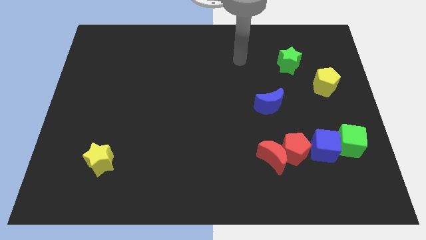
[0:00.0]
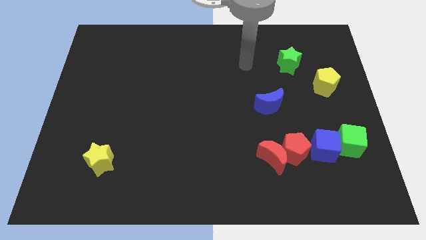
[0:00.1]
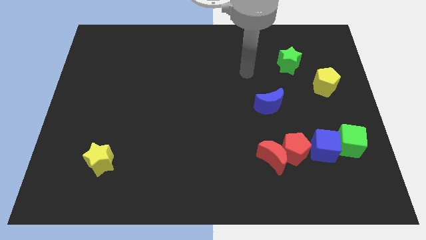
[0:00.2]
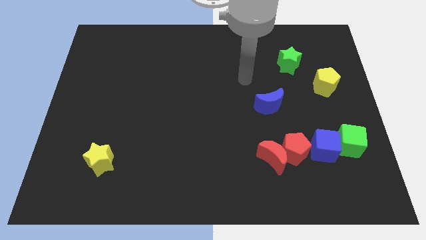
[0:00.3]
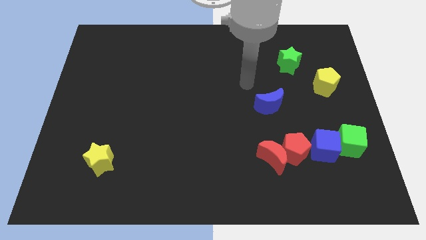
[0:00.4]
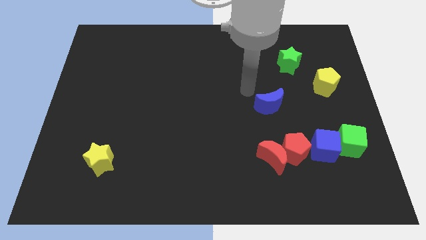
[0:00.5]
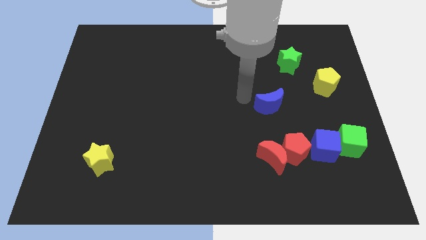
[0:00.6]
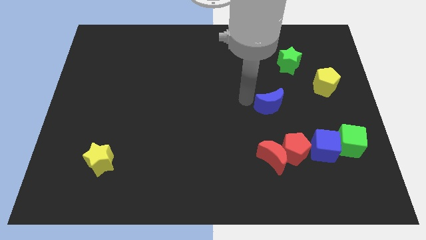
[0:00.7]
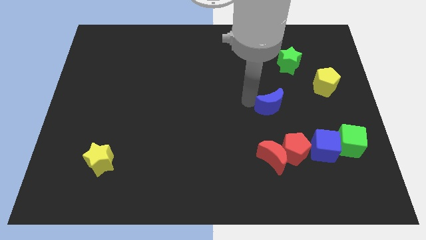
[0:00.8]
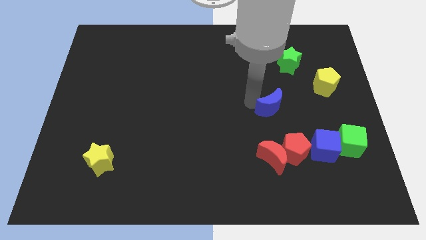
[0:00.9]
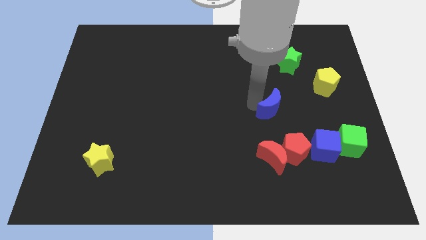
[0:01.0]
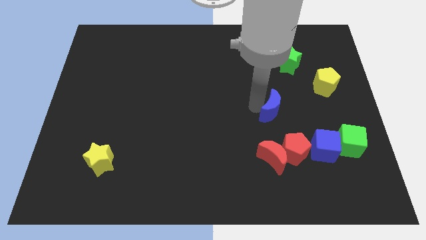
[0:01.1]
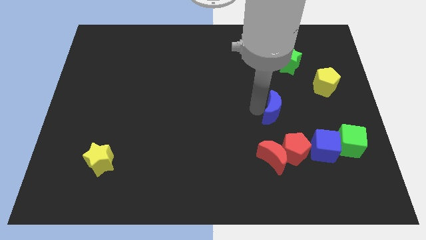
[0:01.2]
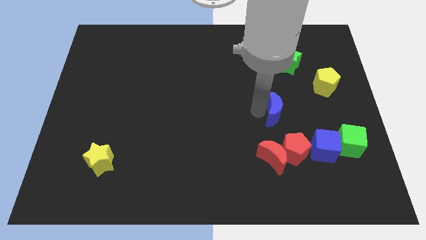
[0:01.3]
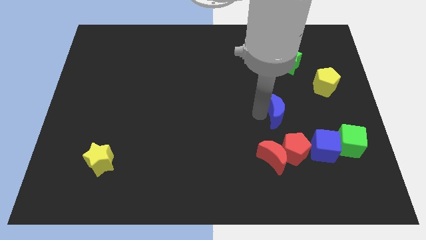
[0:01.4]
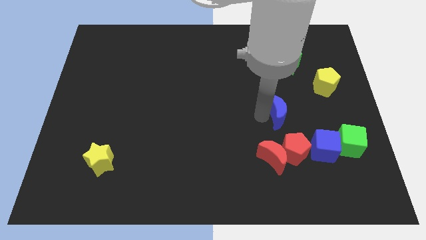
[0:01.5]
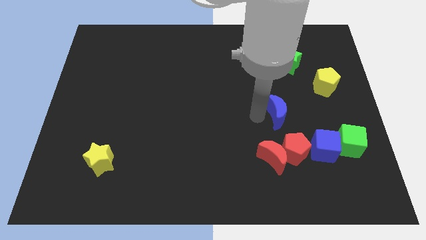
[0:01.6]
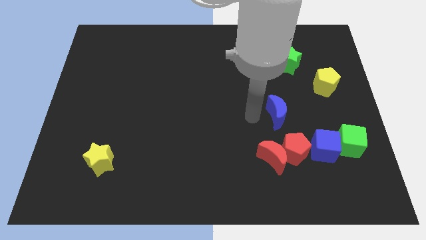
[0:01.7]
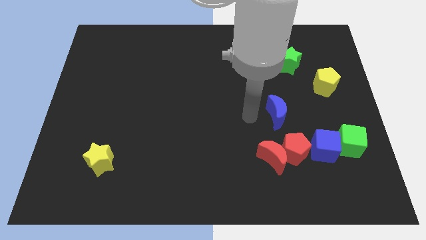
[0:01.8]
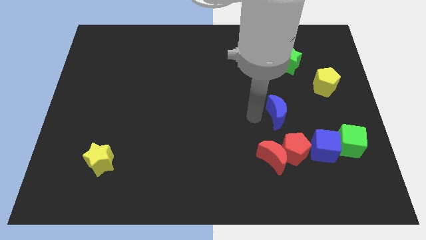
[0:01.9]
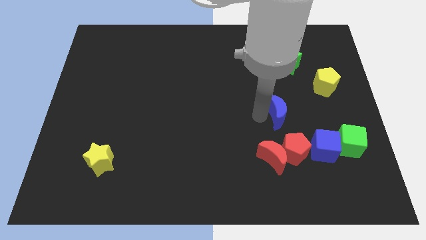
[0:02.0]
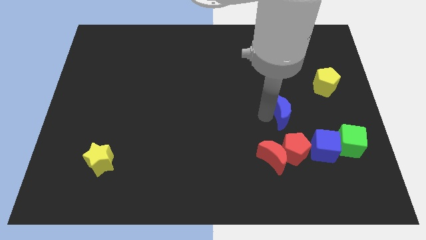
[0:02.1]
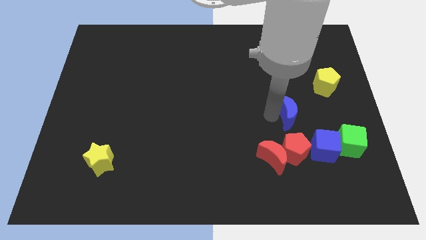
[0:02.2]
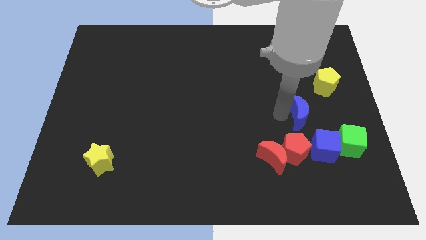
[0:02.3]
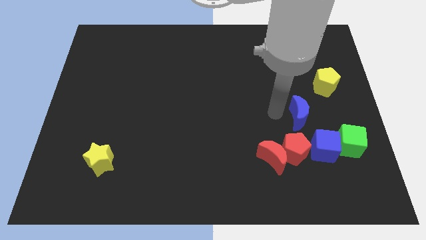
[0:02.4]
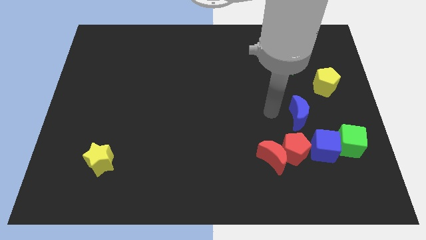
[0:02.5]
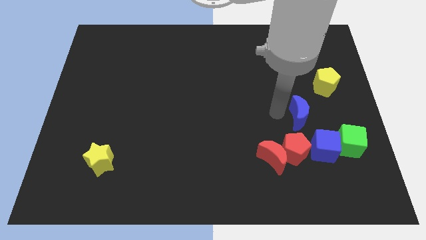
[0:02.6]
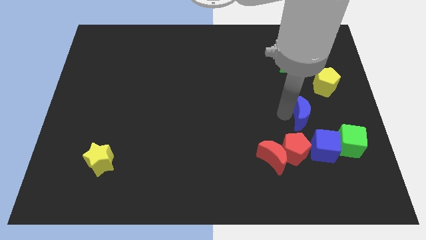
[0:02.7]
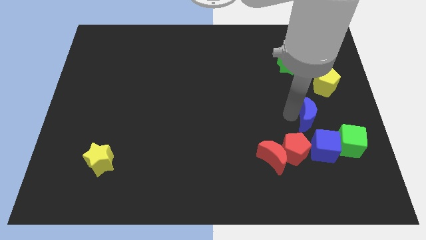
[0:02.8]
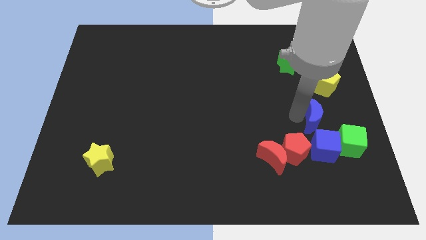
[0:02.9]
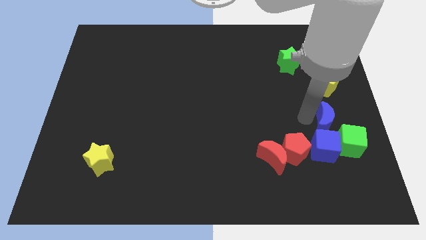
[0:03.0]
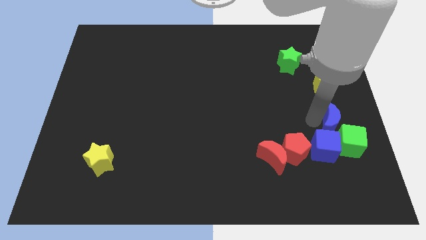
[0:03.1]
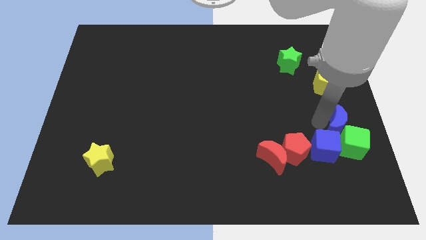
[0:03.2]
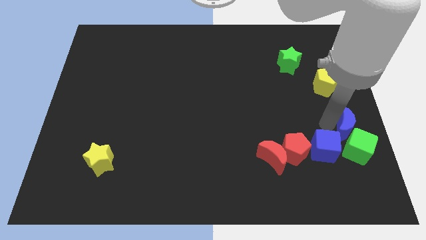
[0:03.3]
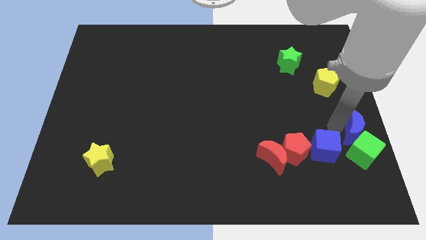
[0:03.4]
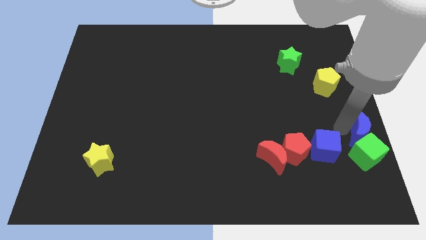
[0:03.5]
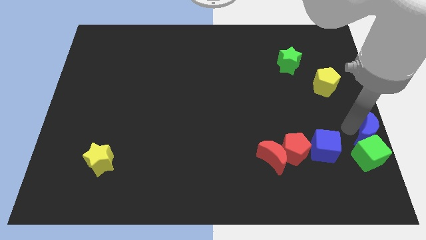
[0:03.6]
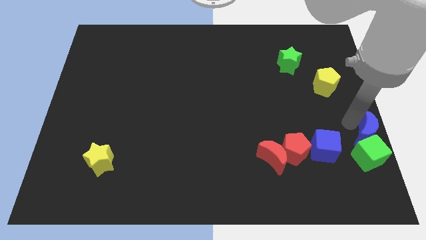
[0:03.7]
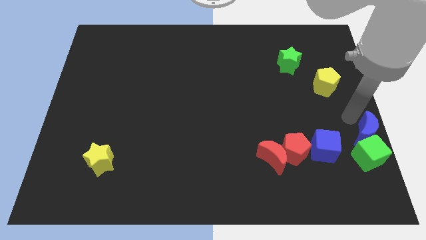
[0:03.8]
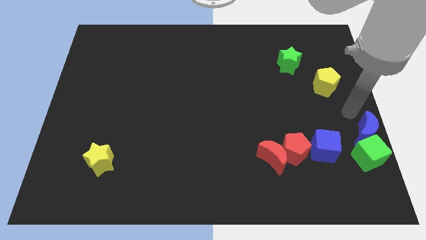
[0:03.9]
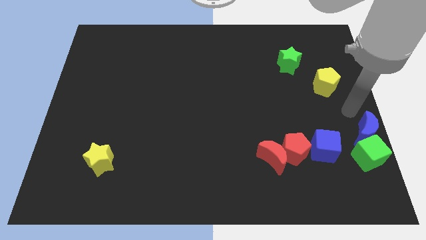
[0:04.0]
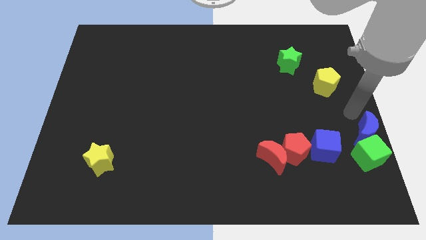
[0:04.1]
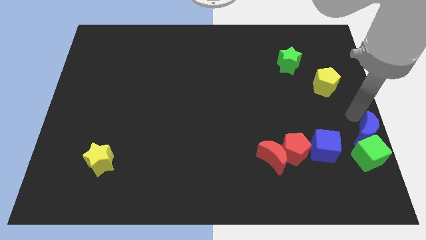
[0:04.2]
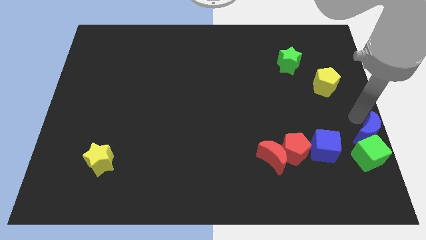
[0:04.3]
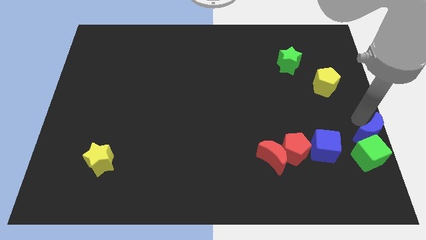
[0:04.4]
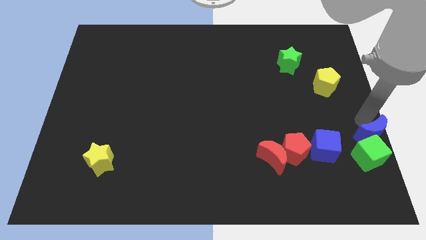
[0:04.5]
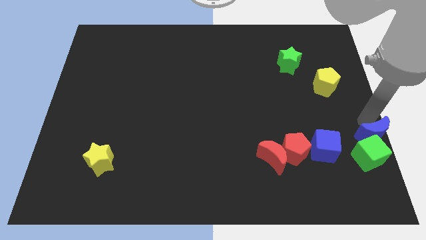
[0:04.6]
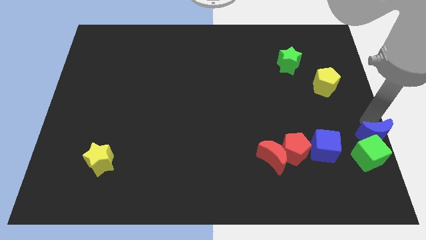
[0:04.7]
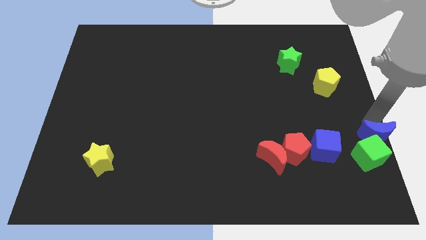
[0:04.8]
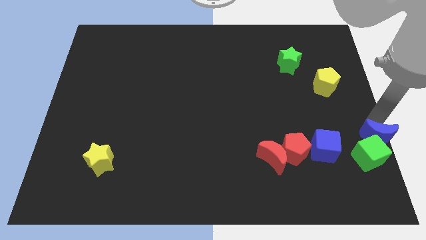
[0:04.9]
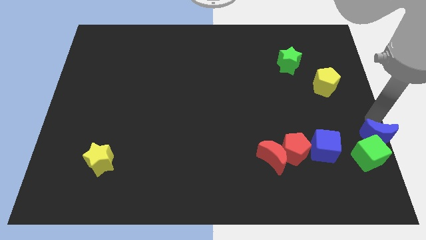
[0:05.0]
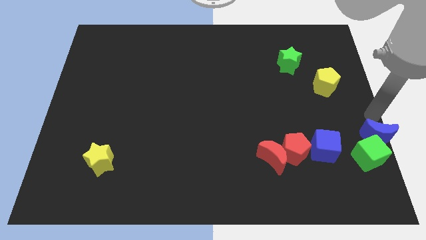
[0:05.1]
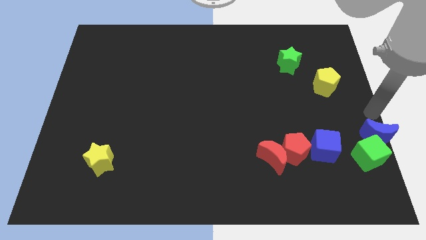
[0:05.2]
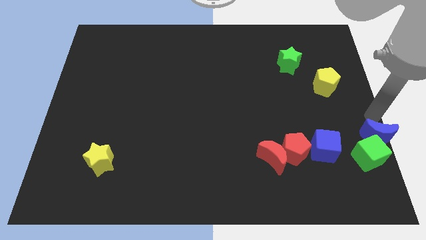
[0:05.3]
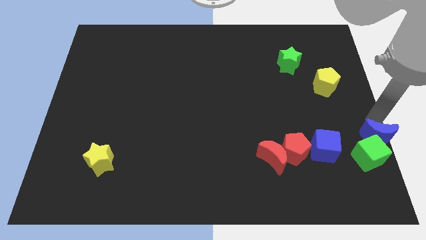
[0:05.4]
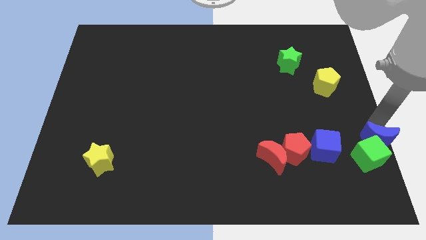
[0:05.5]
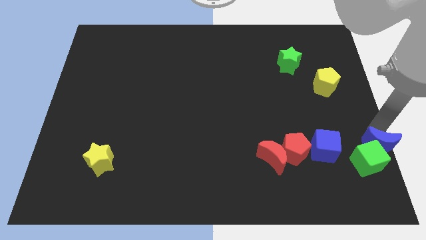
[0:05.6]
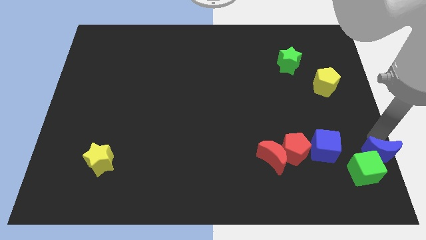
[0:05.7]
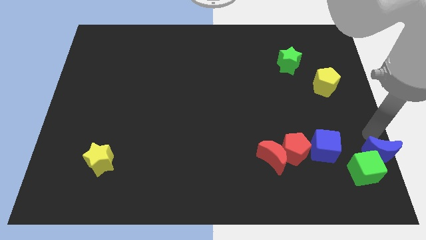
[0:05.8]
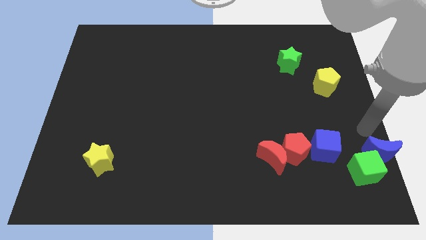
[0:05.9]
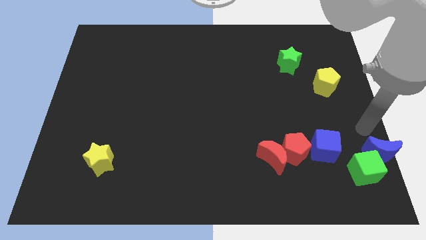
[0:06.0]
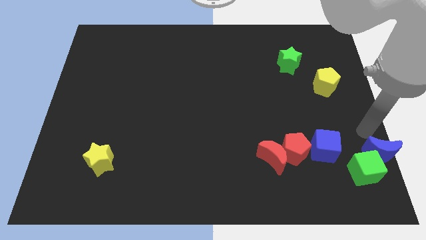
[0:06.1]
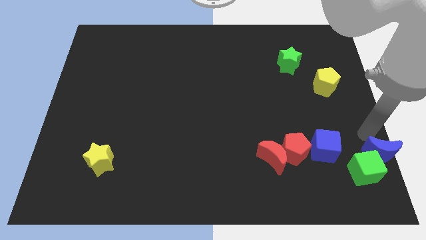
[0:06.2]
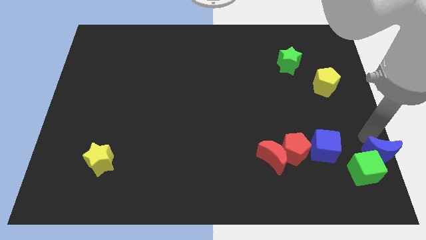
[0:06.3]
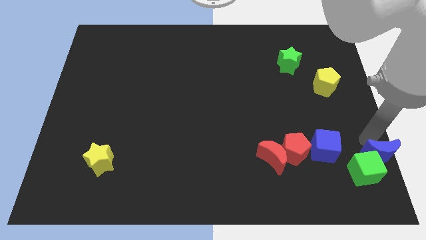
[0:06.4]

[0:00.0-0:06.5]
put the blue moon to the bottom right of the board
